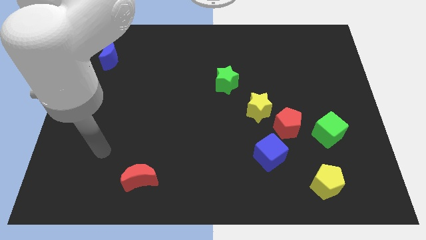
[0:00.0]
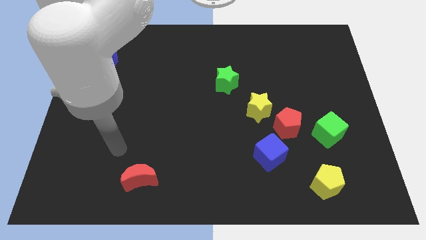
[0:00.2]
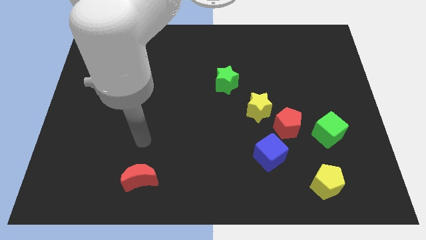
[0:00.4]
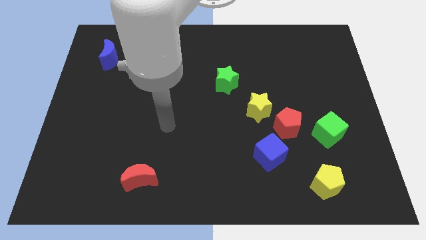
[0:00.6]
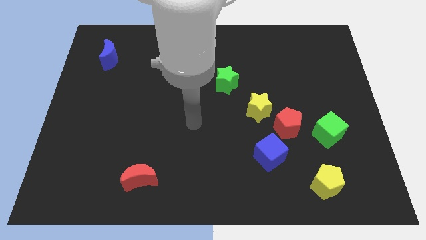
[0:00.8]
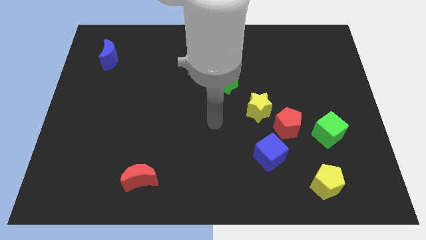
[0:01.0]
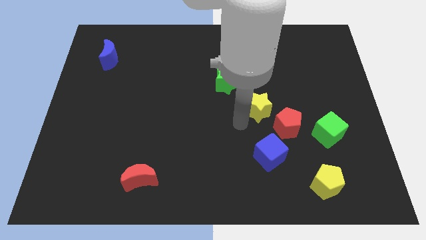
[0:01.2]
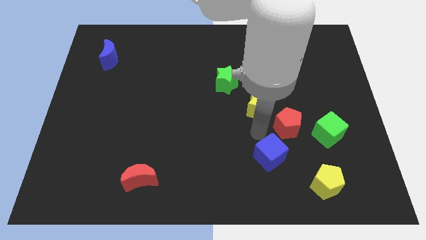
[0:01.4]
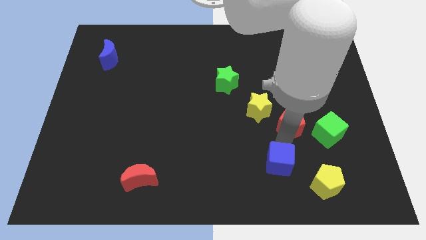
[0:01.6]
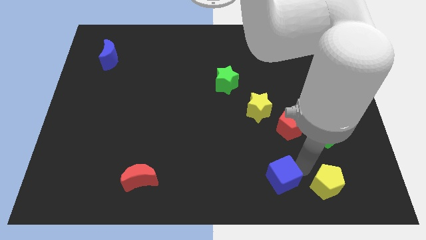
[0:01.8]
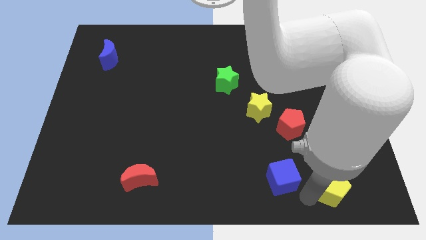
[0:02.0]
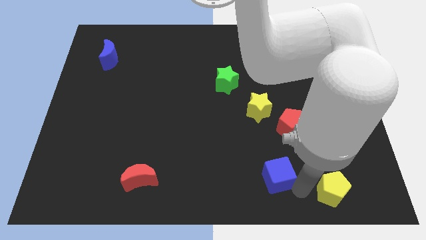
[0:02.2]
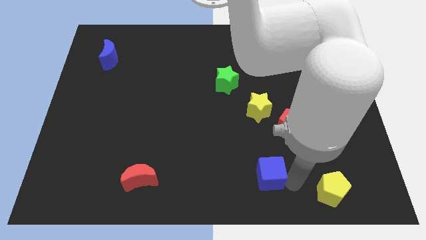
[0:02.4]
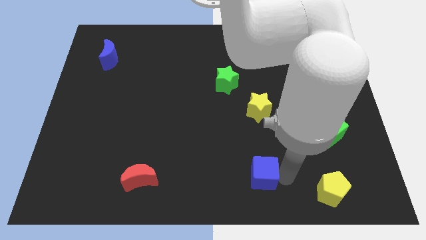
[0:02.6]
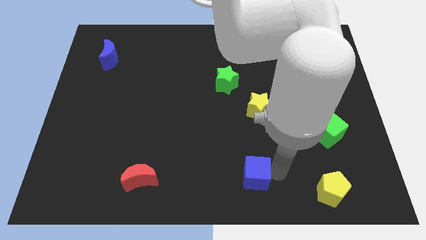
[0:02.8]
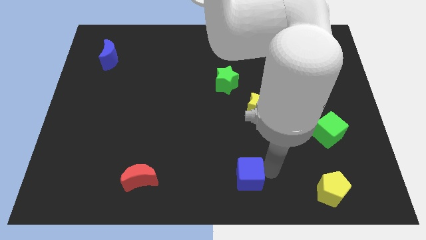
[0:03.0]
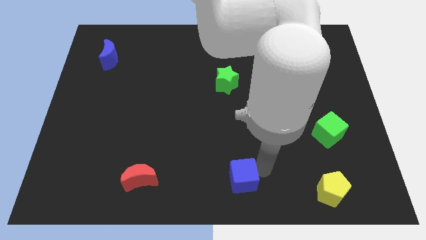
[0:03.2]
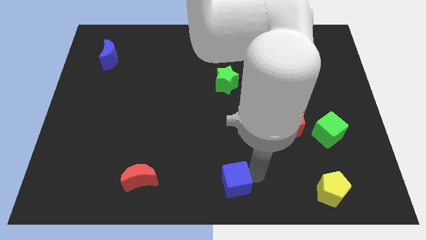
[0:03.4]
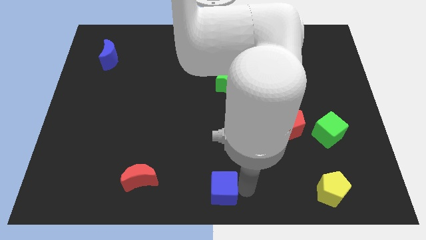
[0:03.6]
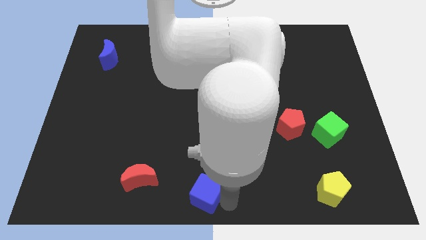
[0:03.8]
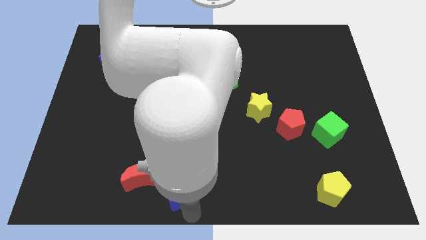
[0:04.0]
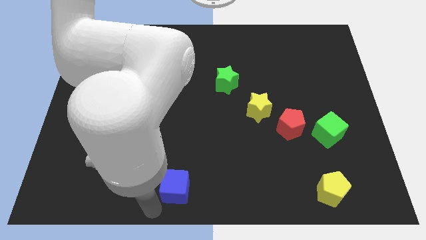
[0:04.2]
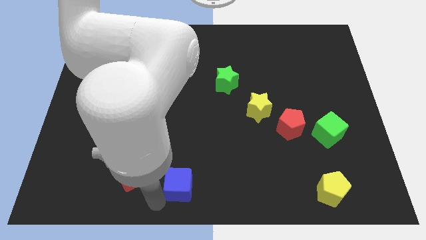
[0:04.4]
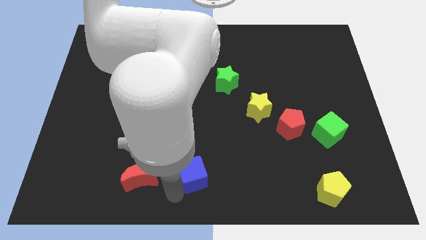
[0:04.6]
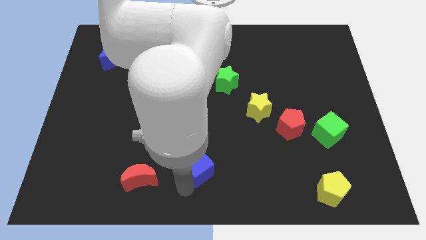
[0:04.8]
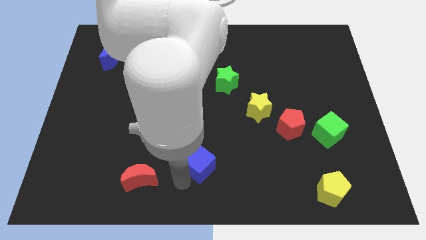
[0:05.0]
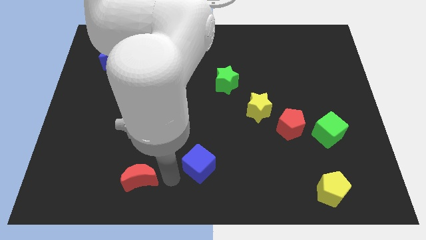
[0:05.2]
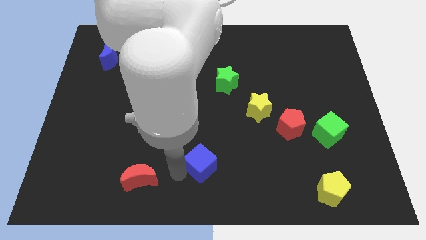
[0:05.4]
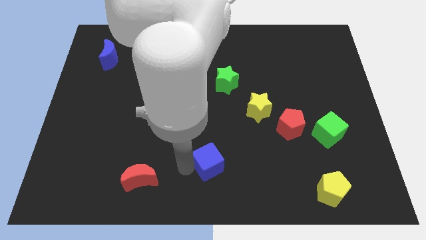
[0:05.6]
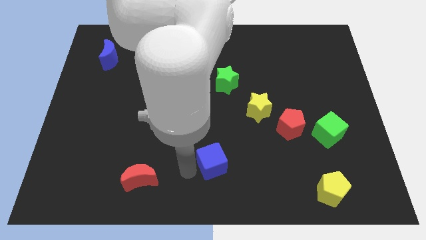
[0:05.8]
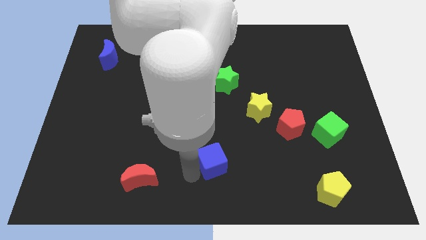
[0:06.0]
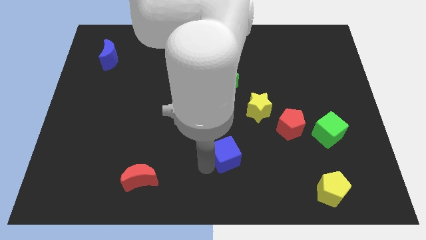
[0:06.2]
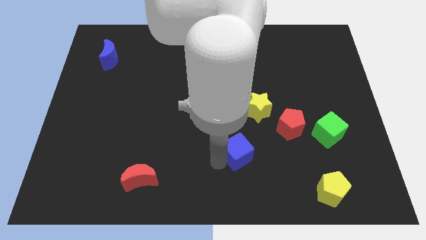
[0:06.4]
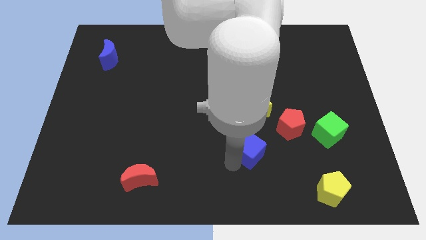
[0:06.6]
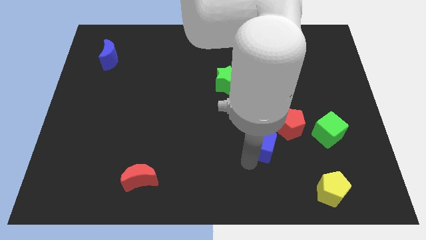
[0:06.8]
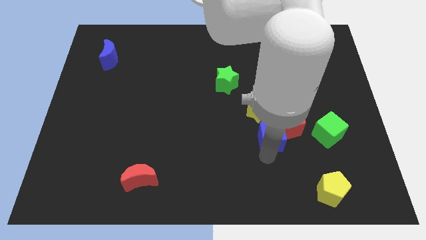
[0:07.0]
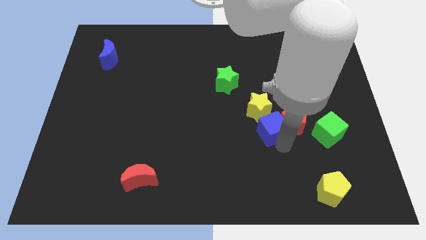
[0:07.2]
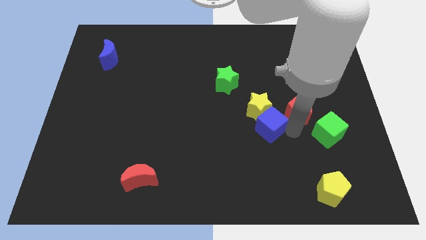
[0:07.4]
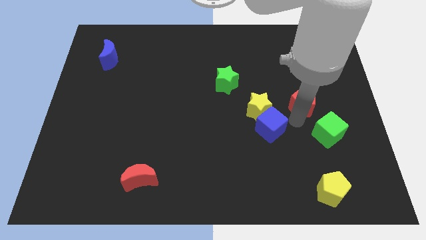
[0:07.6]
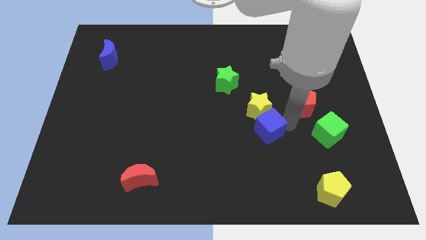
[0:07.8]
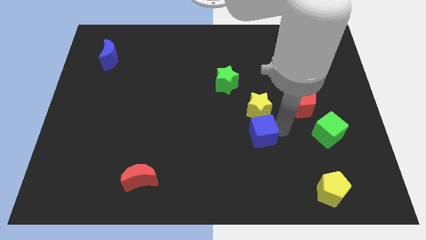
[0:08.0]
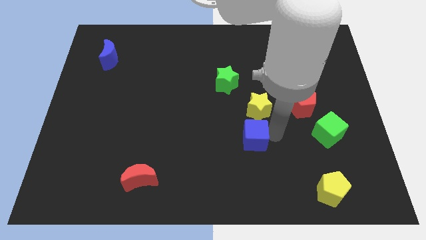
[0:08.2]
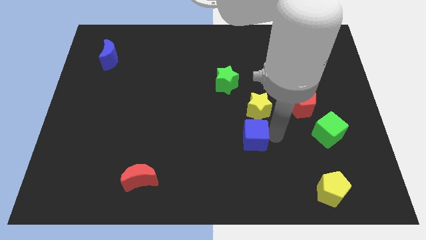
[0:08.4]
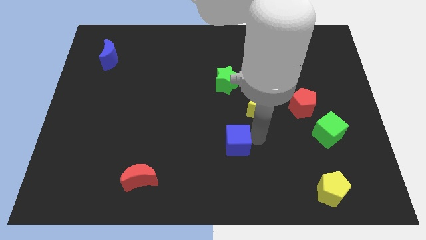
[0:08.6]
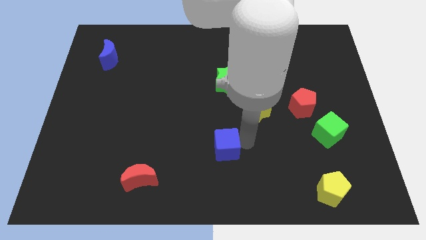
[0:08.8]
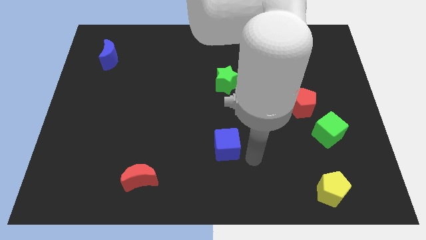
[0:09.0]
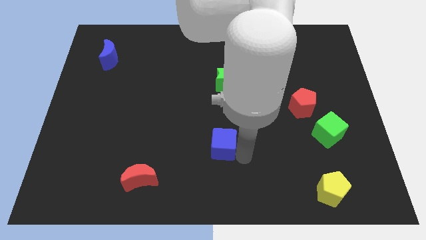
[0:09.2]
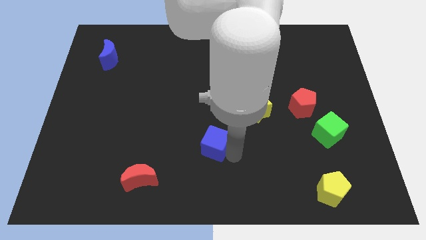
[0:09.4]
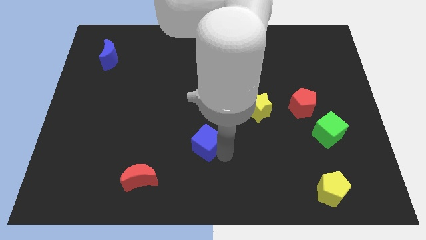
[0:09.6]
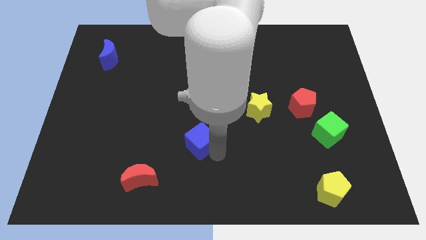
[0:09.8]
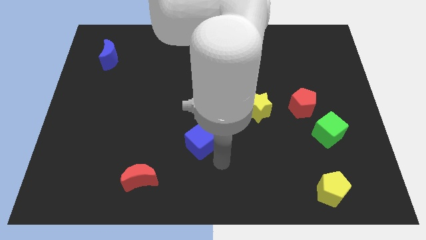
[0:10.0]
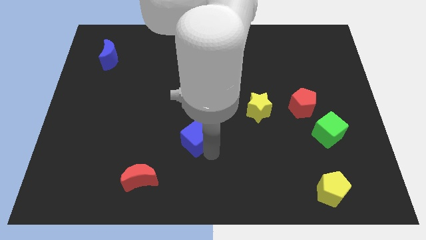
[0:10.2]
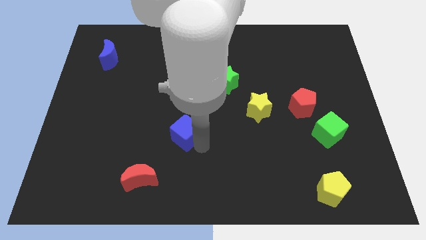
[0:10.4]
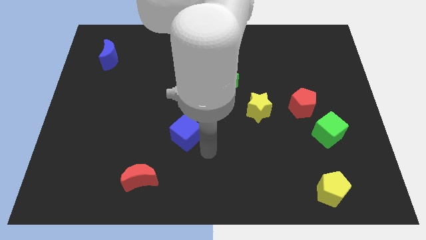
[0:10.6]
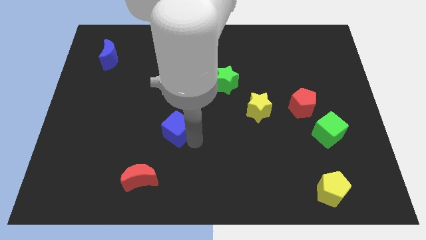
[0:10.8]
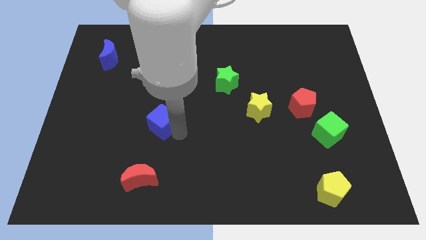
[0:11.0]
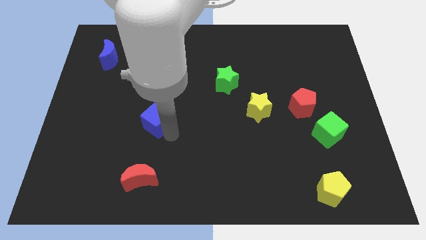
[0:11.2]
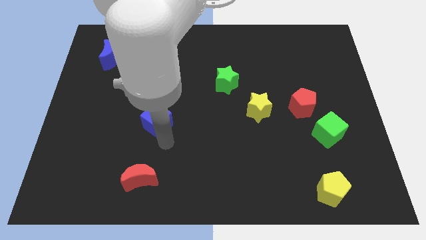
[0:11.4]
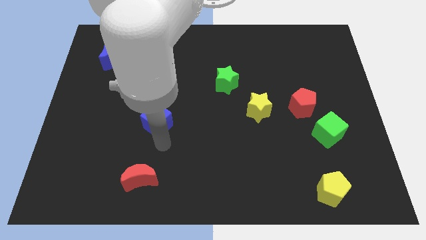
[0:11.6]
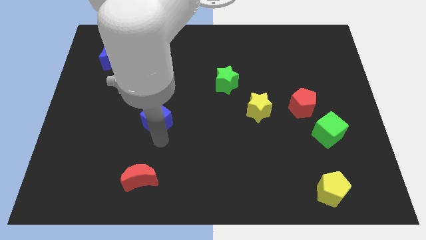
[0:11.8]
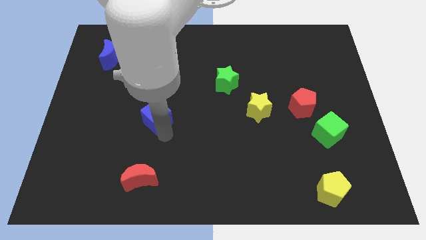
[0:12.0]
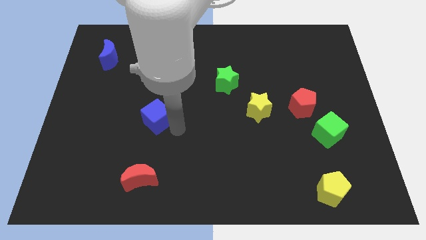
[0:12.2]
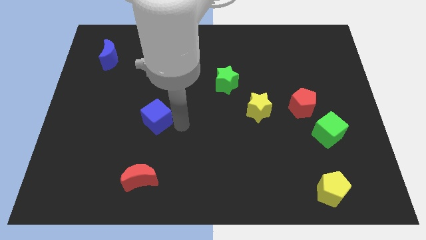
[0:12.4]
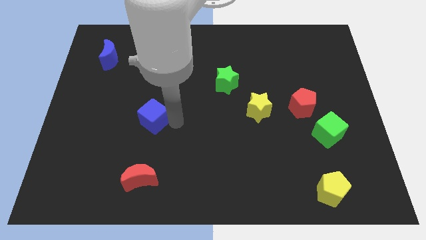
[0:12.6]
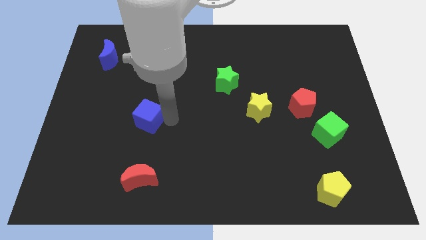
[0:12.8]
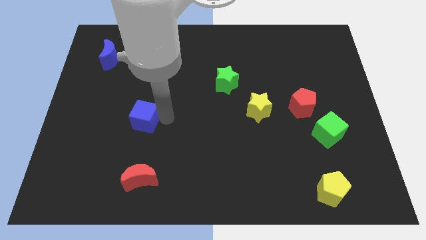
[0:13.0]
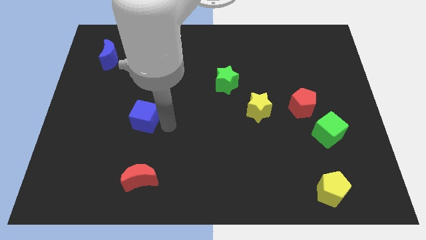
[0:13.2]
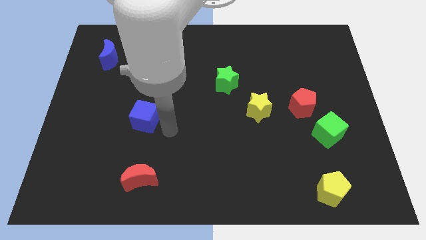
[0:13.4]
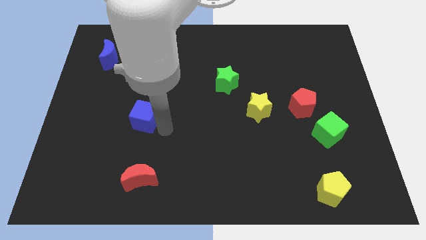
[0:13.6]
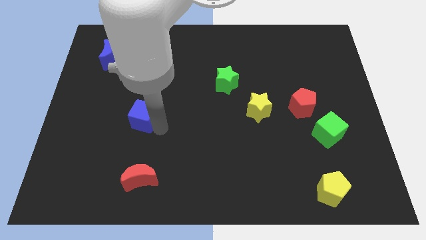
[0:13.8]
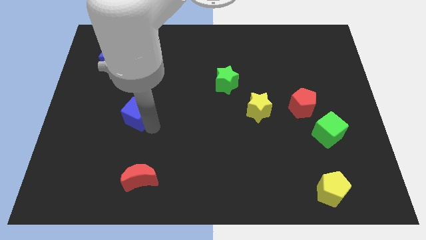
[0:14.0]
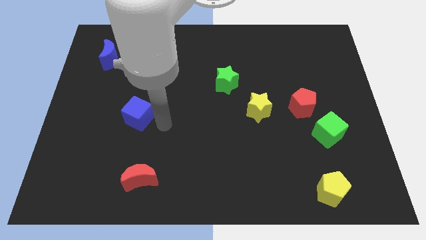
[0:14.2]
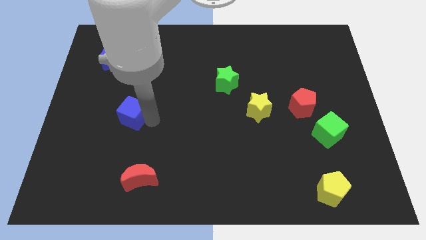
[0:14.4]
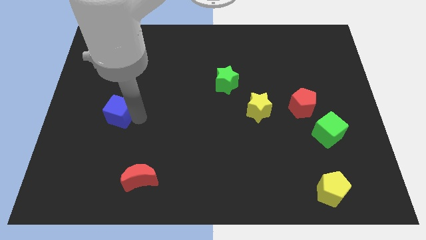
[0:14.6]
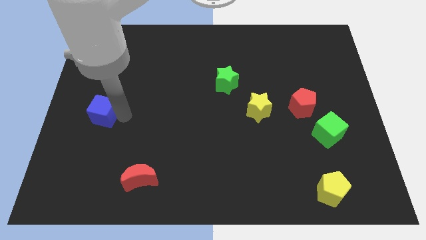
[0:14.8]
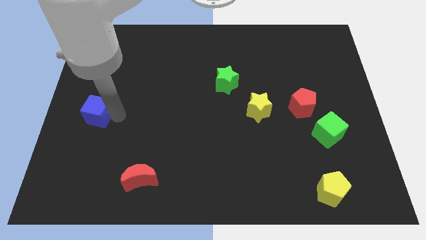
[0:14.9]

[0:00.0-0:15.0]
push the blue cube to the center left
